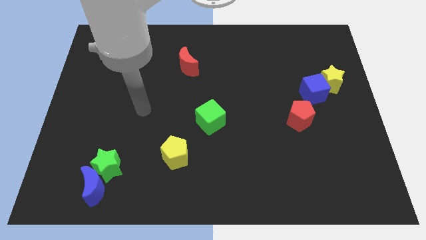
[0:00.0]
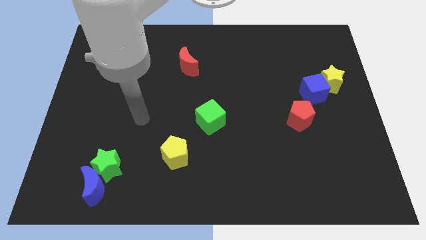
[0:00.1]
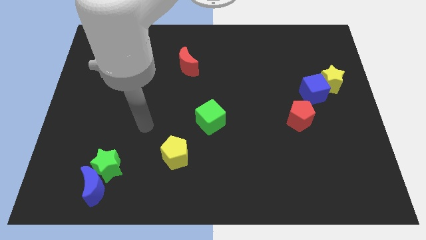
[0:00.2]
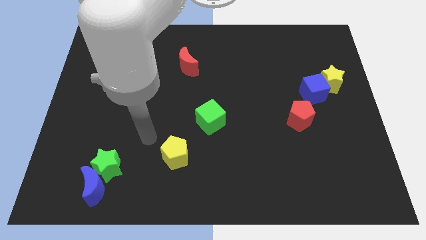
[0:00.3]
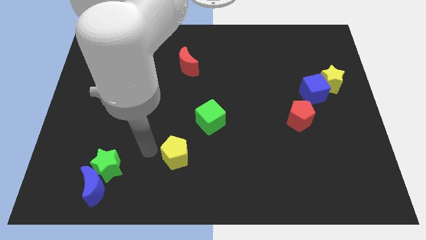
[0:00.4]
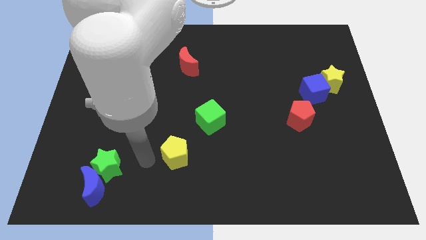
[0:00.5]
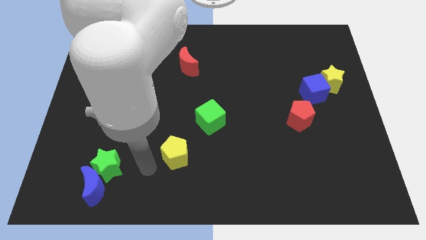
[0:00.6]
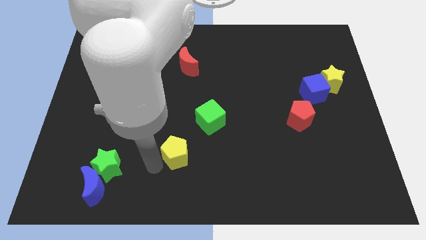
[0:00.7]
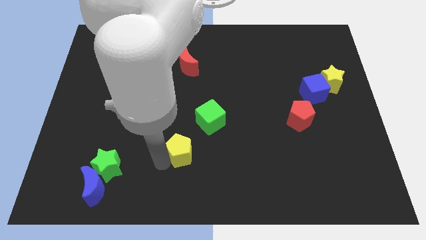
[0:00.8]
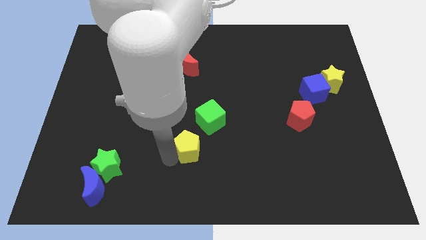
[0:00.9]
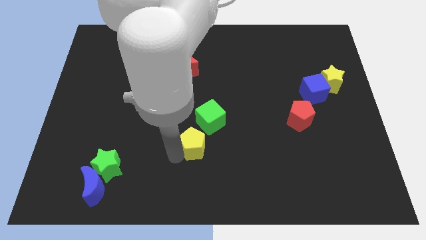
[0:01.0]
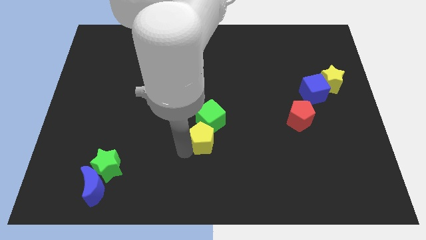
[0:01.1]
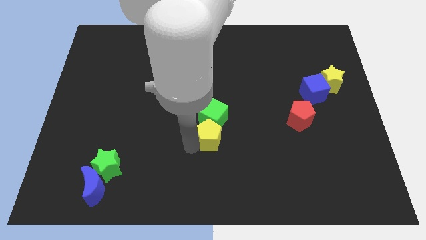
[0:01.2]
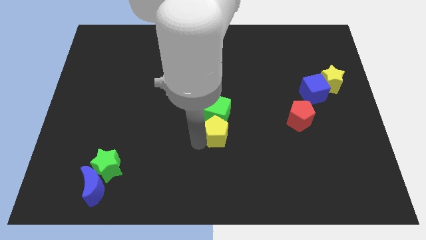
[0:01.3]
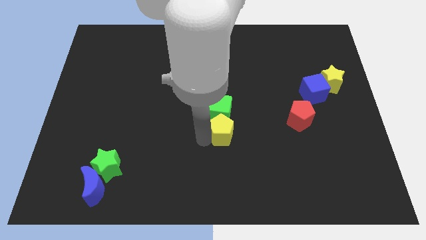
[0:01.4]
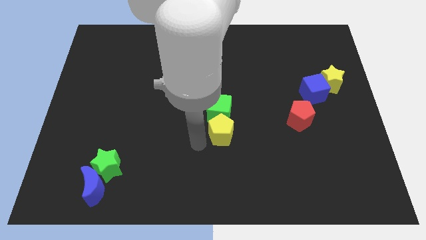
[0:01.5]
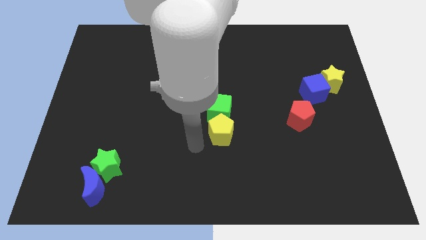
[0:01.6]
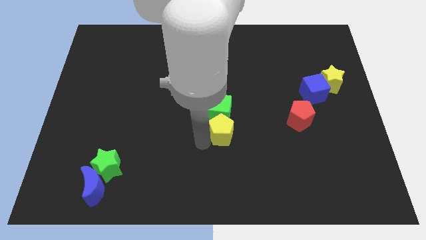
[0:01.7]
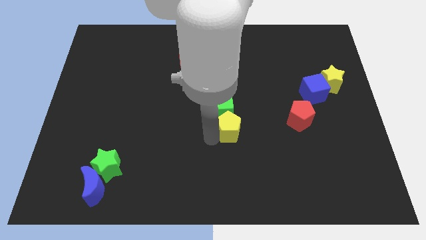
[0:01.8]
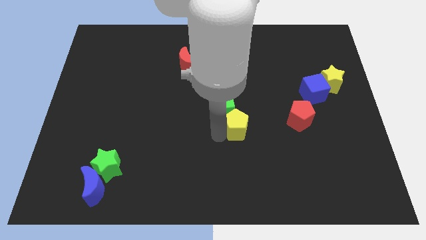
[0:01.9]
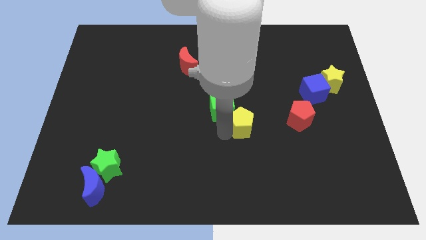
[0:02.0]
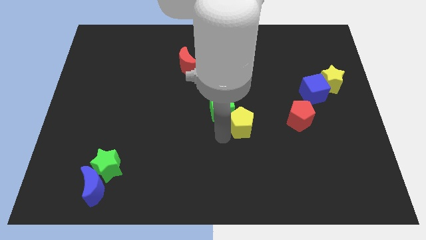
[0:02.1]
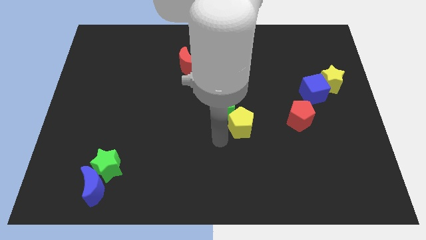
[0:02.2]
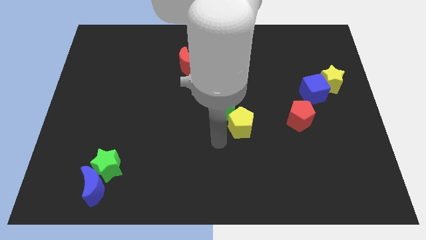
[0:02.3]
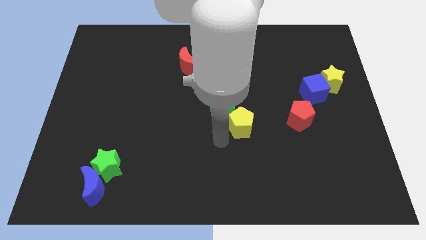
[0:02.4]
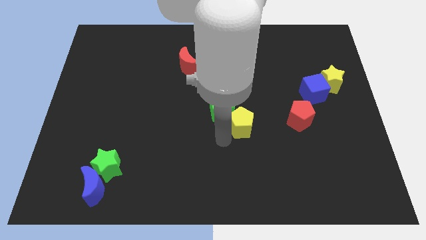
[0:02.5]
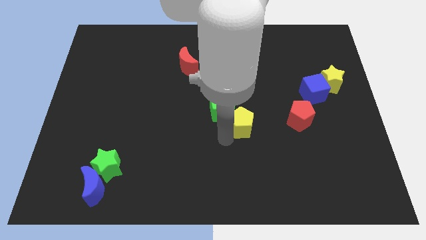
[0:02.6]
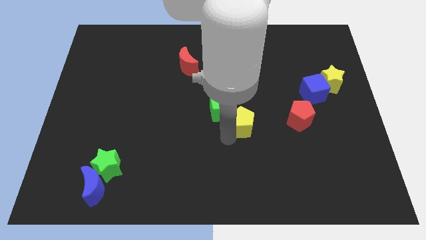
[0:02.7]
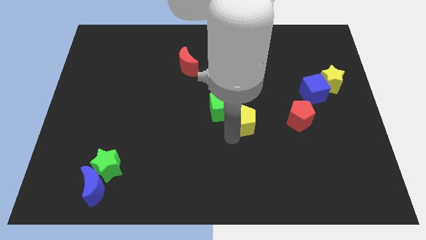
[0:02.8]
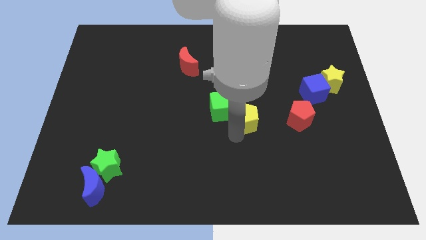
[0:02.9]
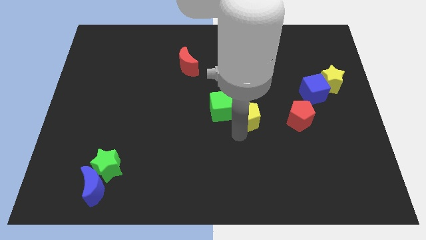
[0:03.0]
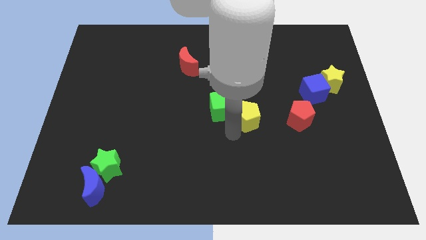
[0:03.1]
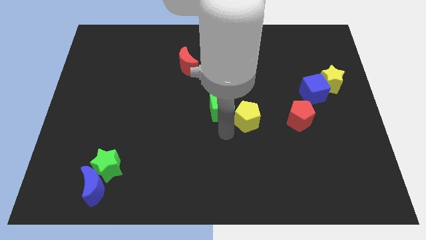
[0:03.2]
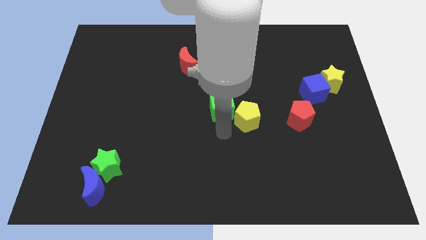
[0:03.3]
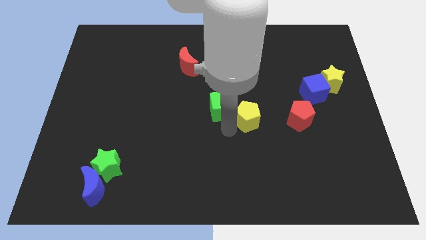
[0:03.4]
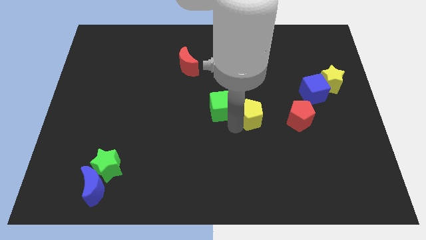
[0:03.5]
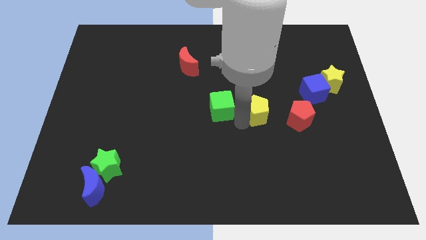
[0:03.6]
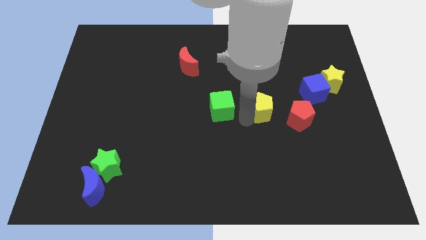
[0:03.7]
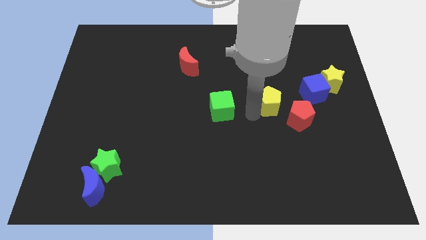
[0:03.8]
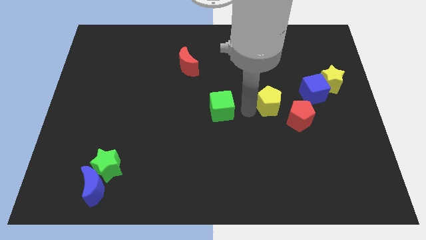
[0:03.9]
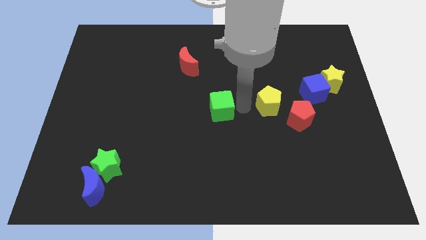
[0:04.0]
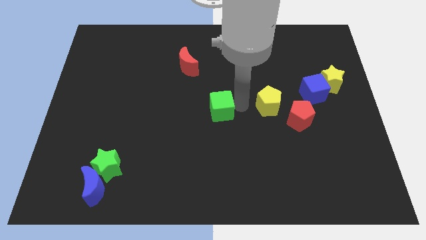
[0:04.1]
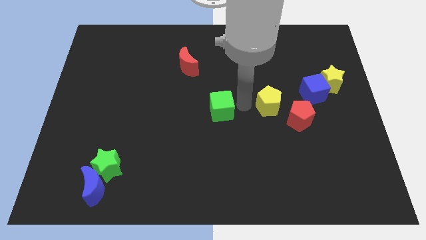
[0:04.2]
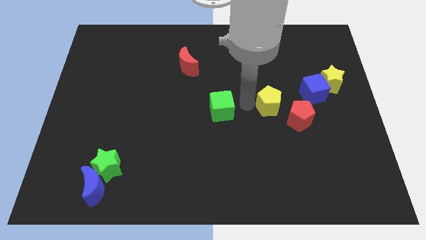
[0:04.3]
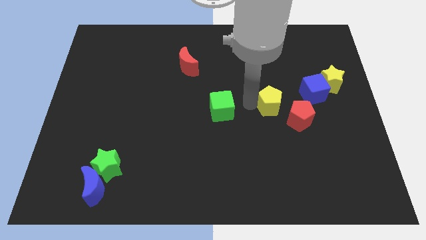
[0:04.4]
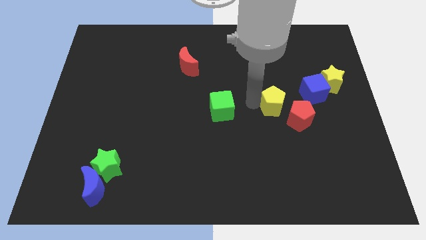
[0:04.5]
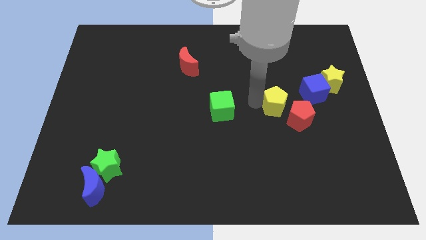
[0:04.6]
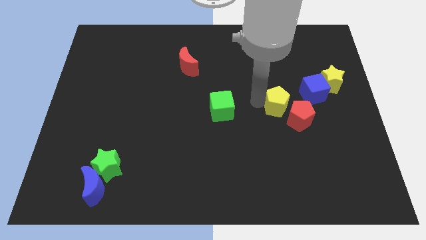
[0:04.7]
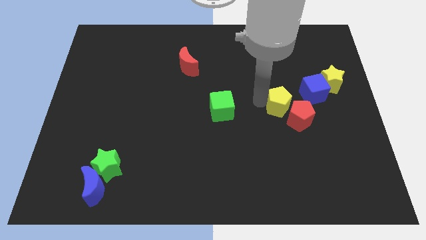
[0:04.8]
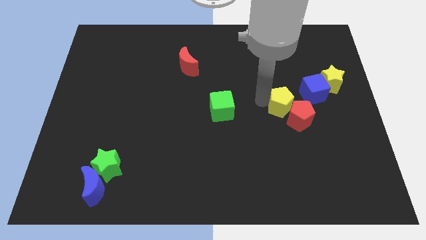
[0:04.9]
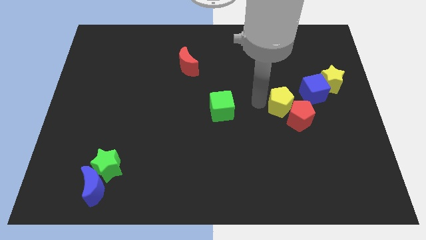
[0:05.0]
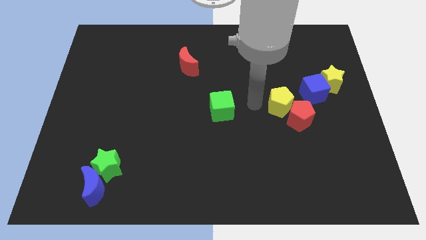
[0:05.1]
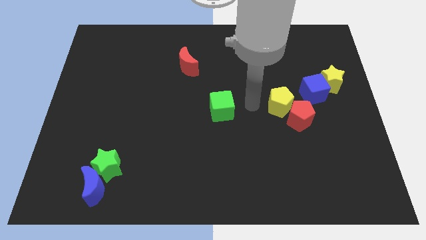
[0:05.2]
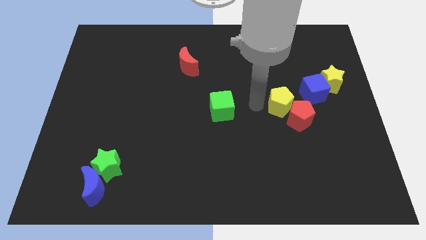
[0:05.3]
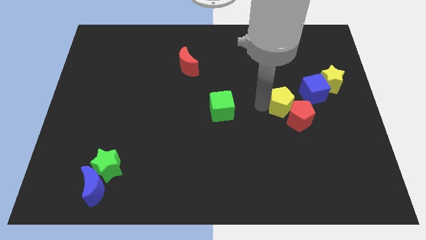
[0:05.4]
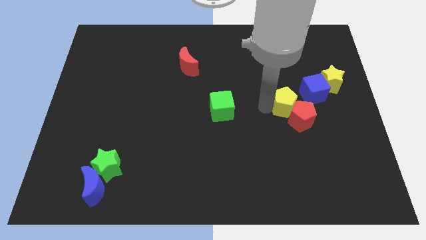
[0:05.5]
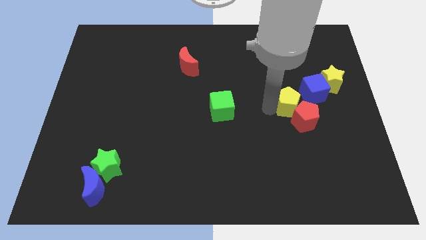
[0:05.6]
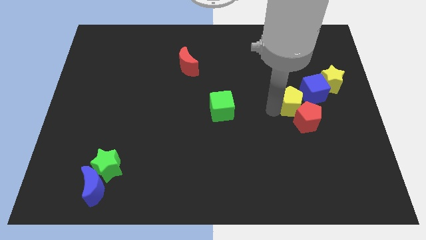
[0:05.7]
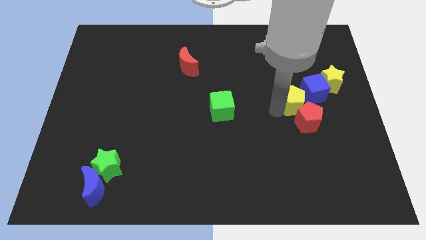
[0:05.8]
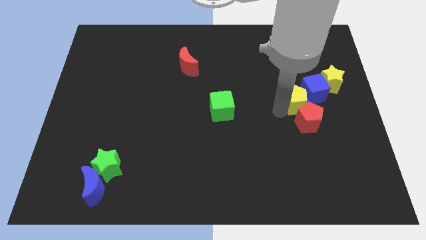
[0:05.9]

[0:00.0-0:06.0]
slide the yellow pentagon close to the blue cube

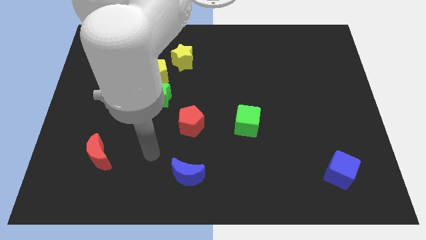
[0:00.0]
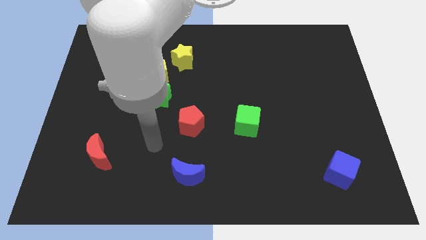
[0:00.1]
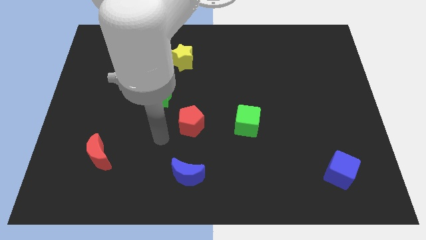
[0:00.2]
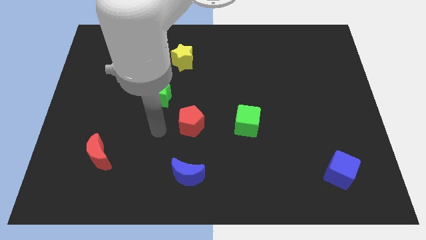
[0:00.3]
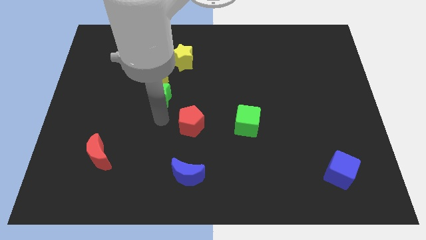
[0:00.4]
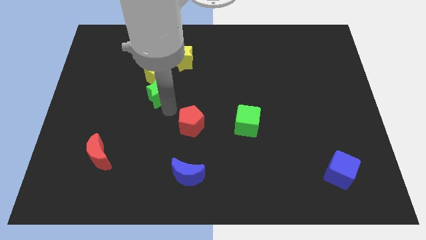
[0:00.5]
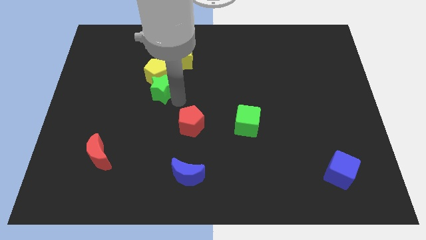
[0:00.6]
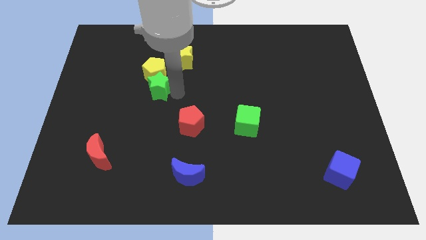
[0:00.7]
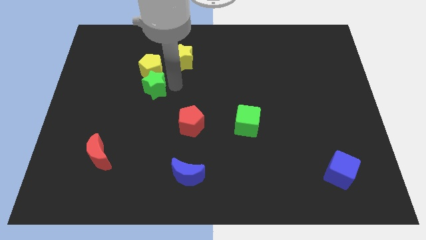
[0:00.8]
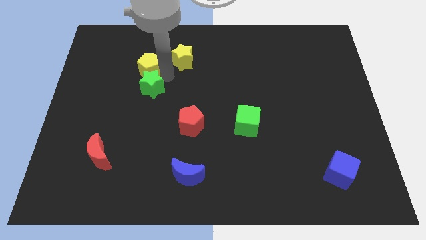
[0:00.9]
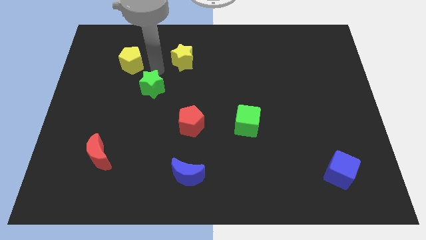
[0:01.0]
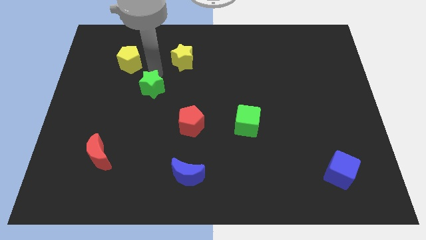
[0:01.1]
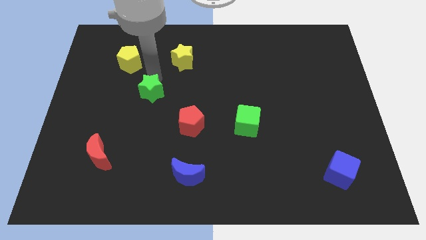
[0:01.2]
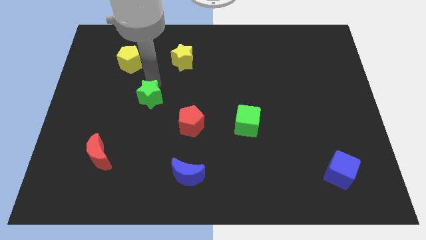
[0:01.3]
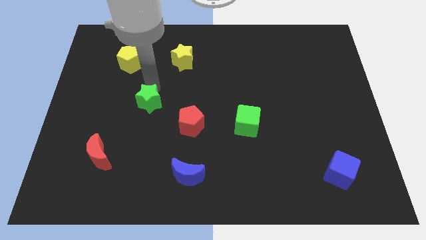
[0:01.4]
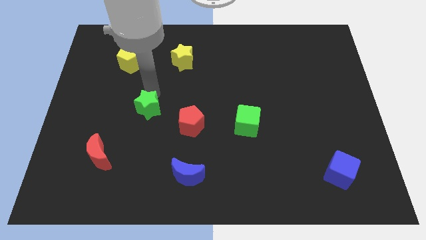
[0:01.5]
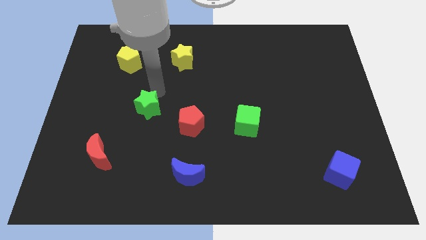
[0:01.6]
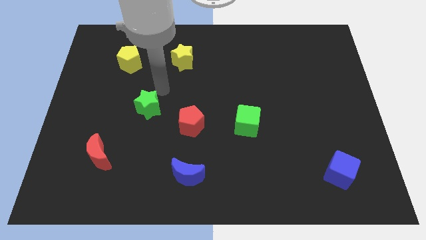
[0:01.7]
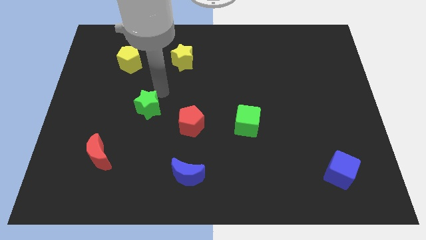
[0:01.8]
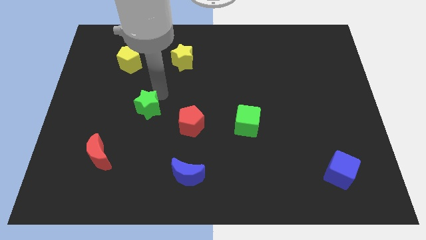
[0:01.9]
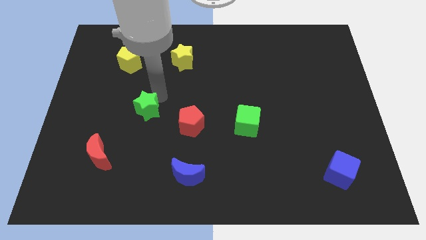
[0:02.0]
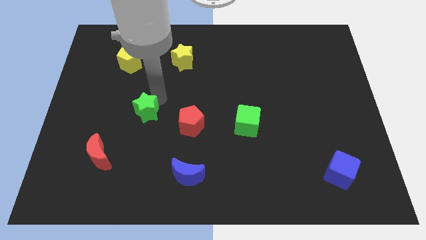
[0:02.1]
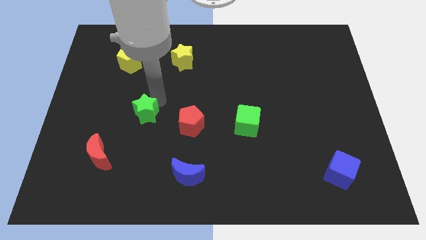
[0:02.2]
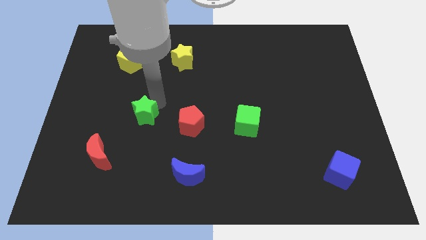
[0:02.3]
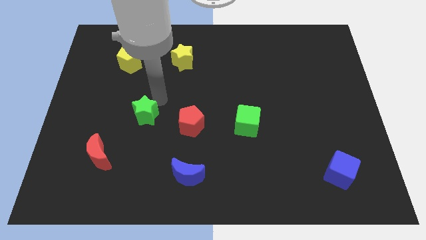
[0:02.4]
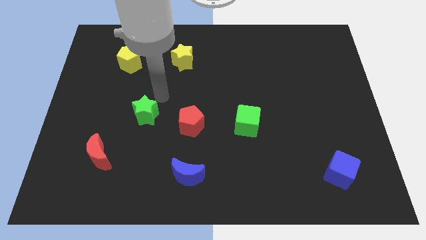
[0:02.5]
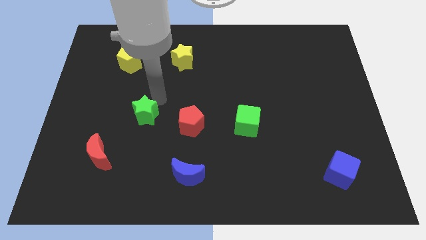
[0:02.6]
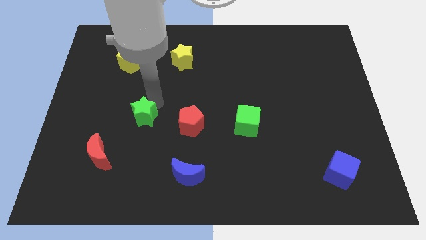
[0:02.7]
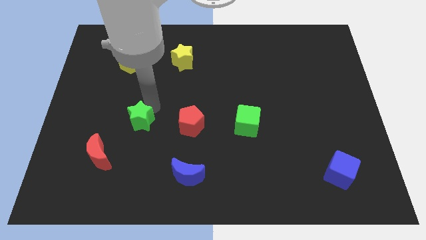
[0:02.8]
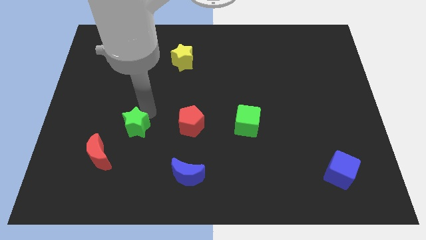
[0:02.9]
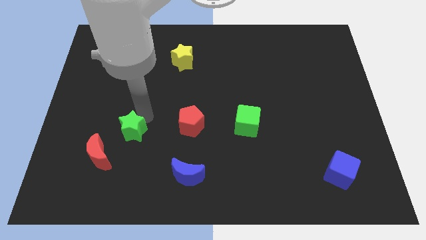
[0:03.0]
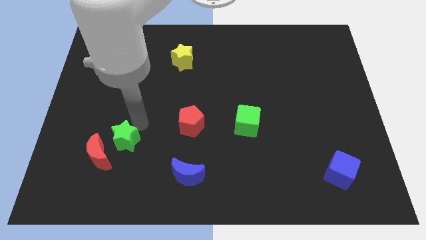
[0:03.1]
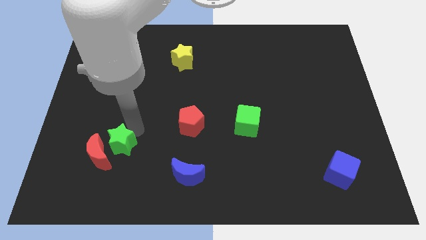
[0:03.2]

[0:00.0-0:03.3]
push the green star close to the red moon
